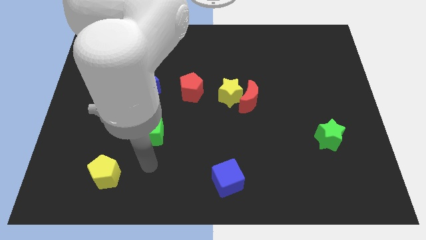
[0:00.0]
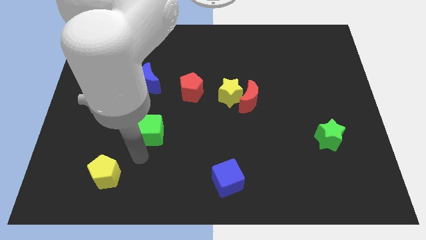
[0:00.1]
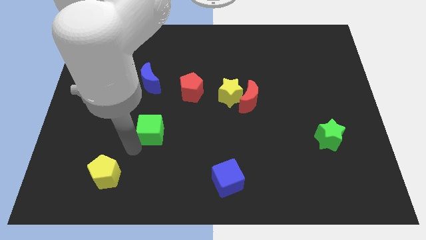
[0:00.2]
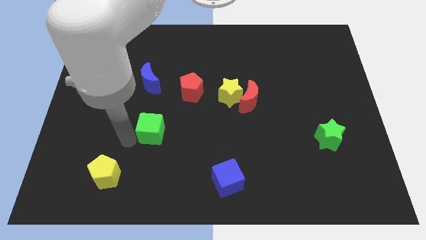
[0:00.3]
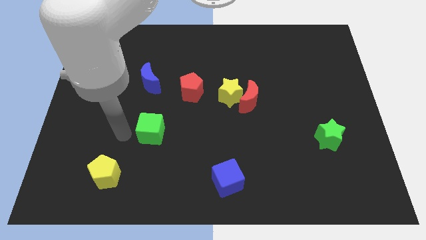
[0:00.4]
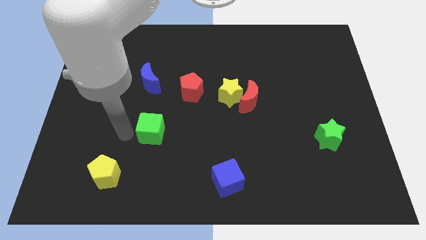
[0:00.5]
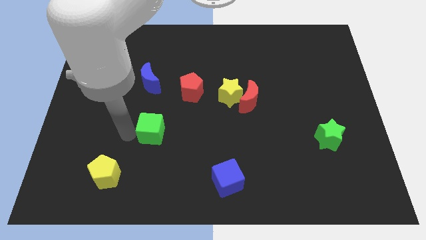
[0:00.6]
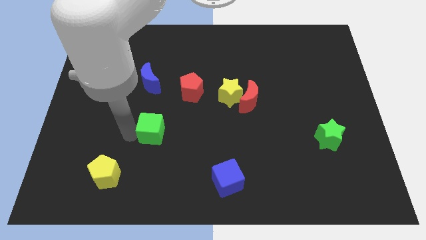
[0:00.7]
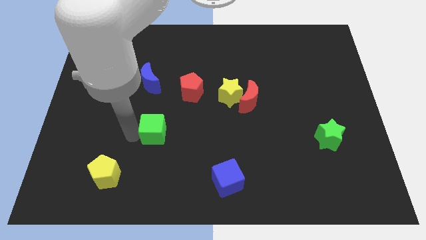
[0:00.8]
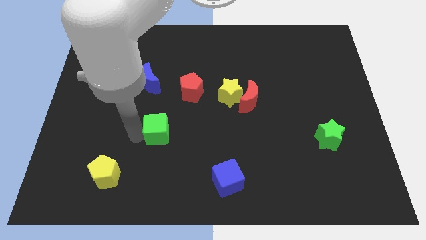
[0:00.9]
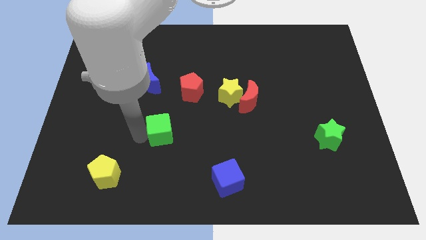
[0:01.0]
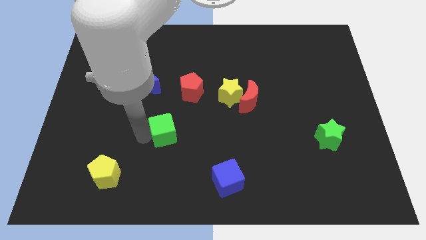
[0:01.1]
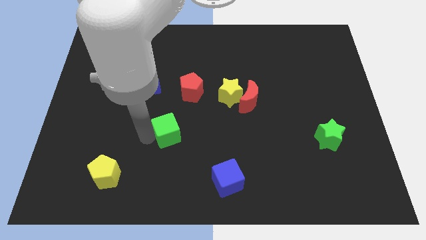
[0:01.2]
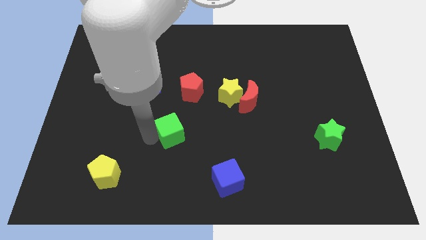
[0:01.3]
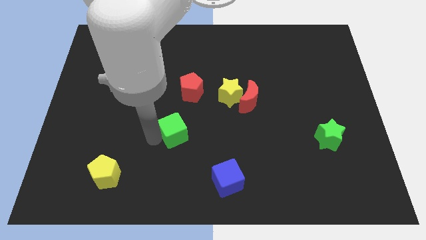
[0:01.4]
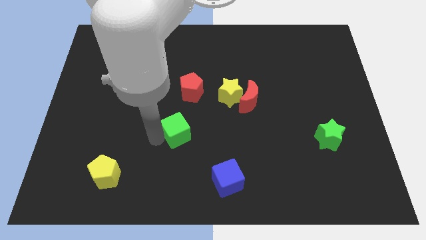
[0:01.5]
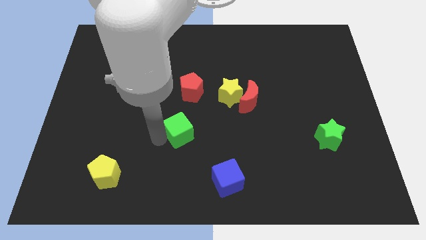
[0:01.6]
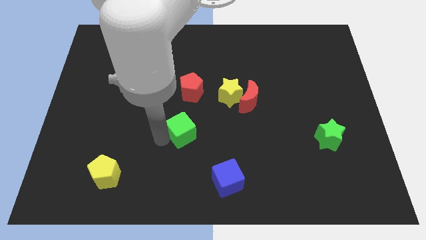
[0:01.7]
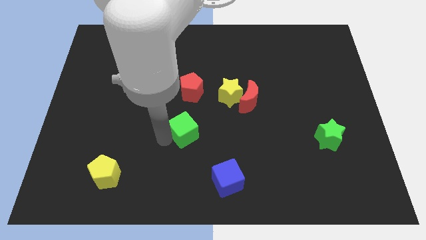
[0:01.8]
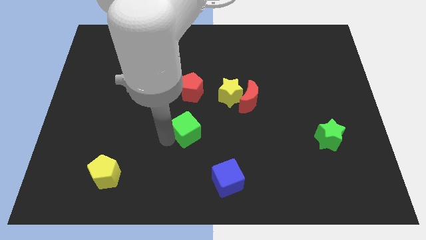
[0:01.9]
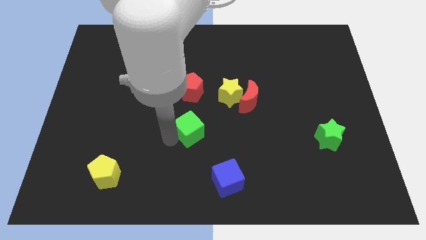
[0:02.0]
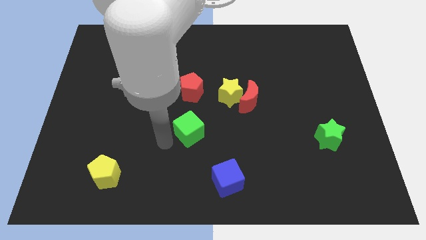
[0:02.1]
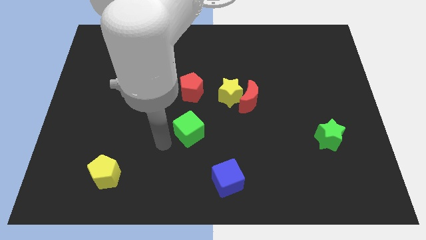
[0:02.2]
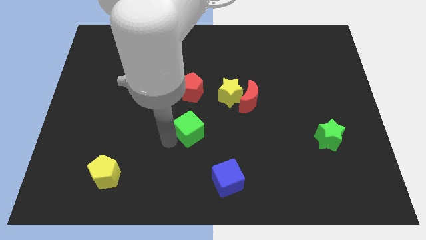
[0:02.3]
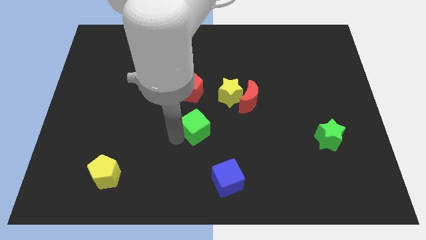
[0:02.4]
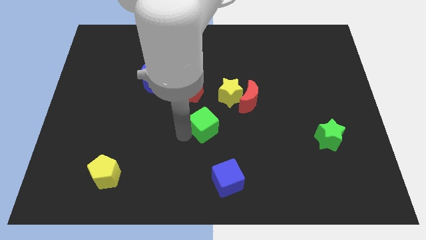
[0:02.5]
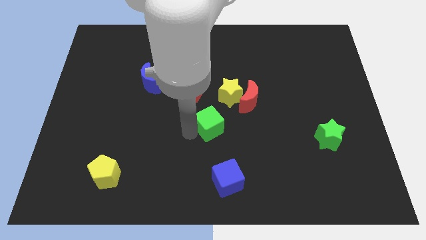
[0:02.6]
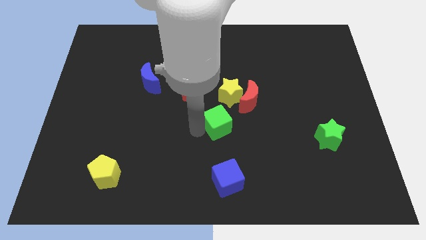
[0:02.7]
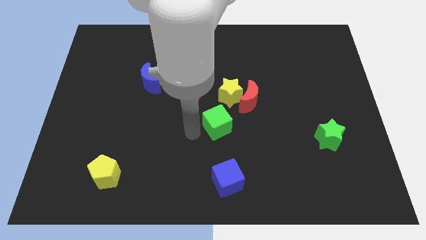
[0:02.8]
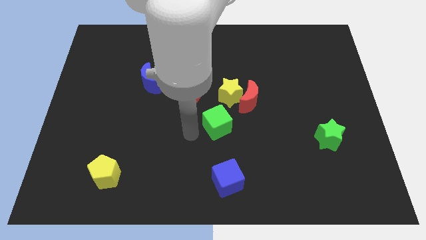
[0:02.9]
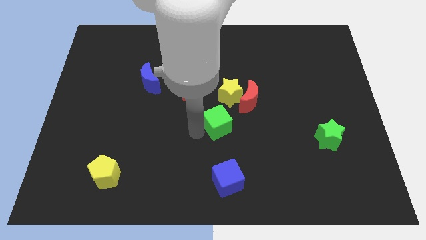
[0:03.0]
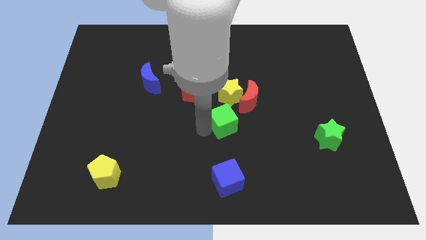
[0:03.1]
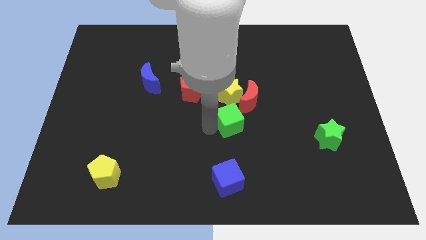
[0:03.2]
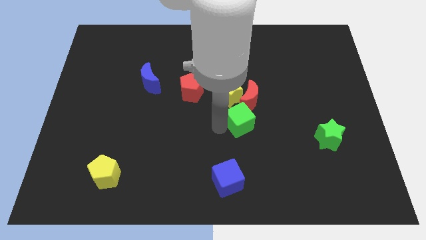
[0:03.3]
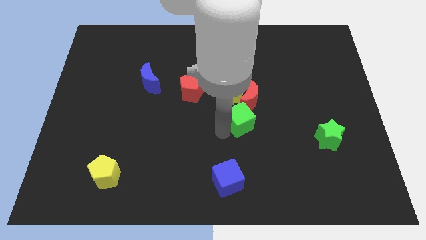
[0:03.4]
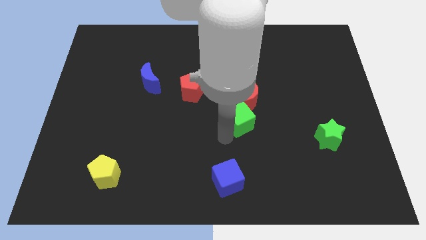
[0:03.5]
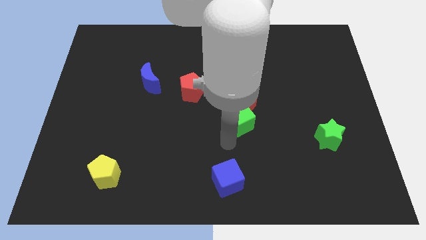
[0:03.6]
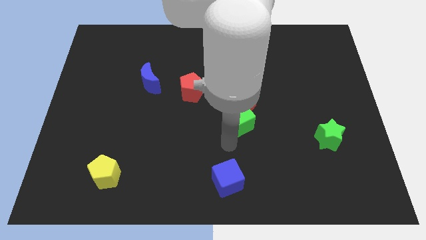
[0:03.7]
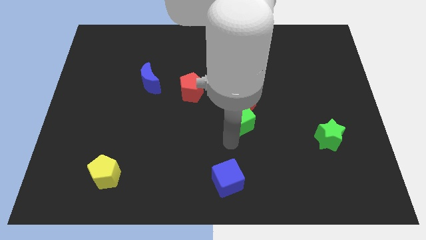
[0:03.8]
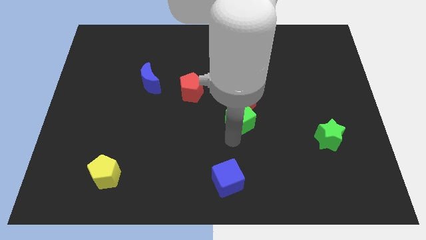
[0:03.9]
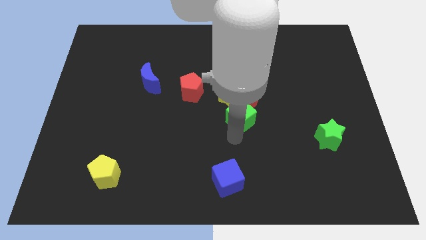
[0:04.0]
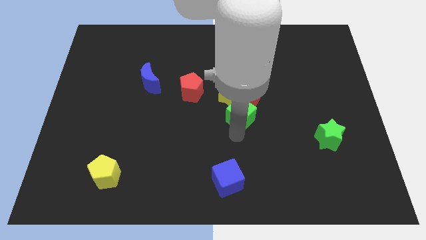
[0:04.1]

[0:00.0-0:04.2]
move the green cube close to the red moon

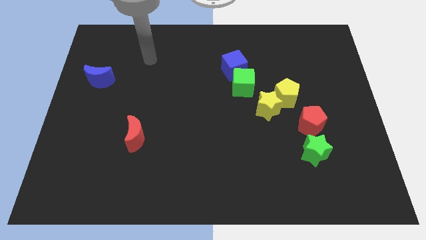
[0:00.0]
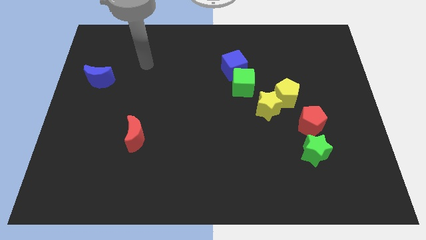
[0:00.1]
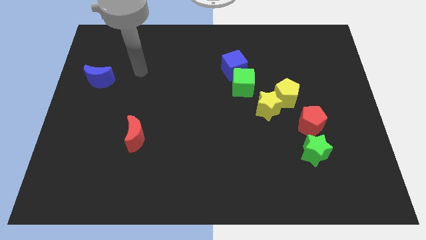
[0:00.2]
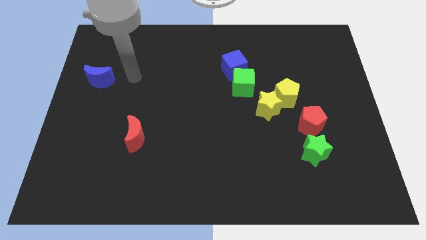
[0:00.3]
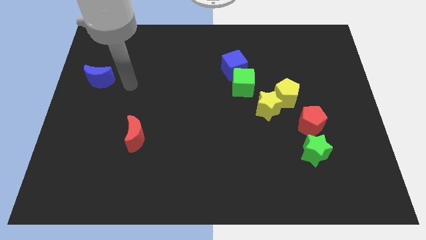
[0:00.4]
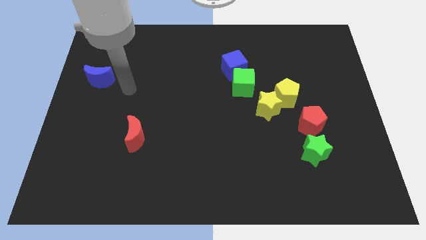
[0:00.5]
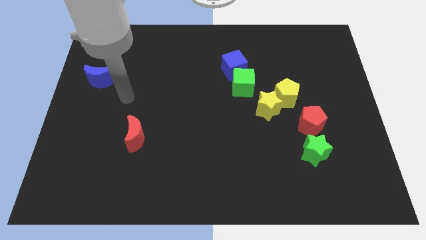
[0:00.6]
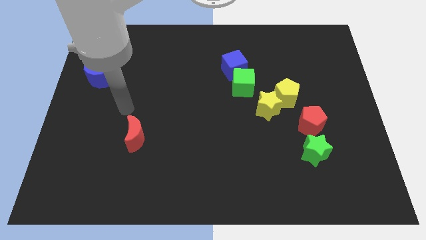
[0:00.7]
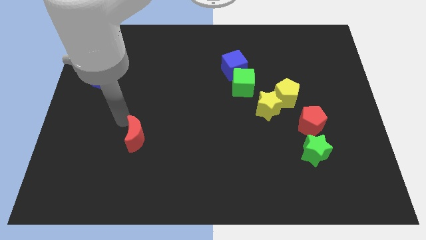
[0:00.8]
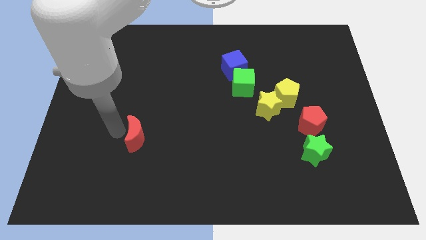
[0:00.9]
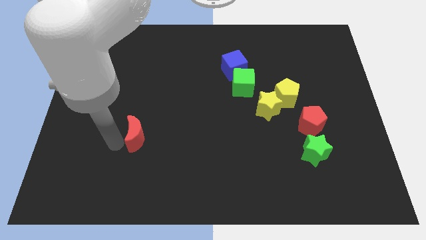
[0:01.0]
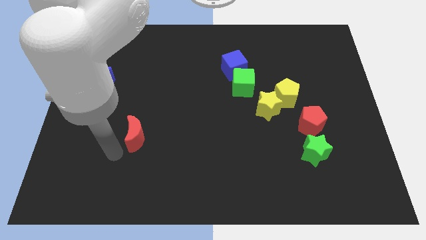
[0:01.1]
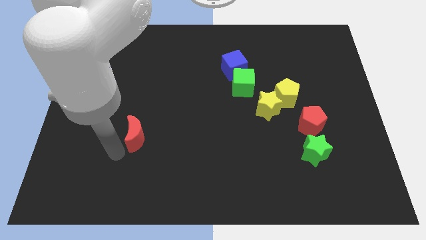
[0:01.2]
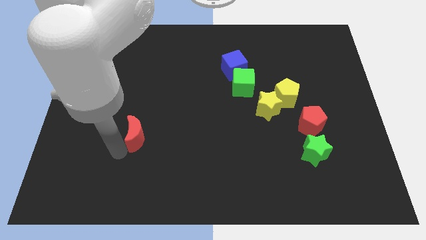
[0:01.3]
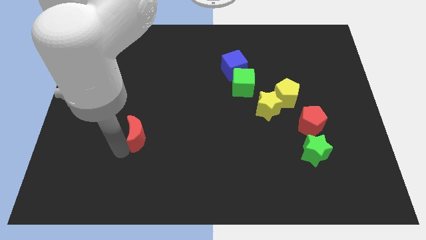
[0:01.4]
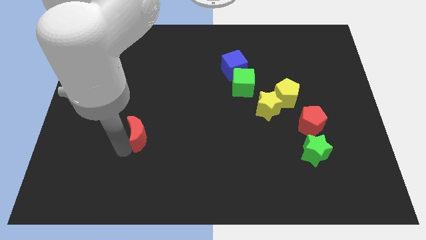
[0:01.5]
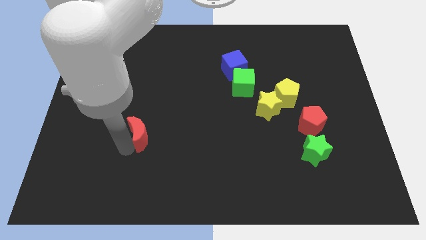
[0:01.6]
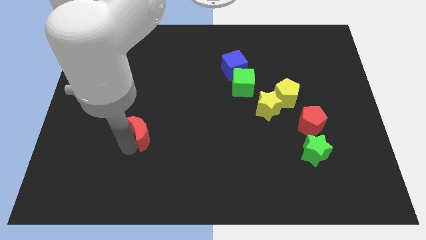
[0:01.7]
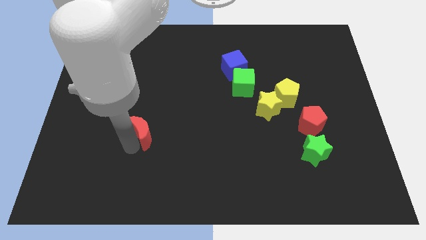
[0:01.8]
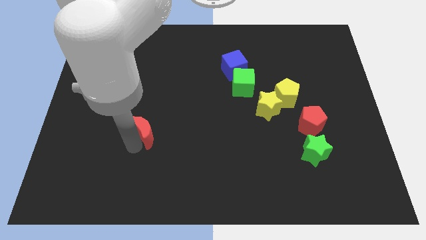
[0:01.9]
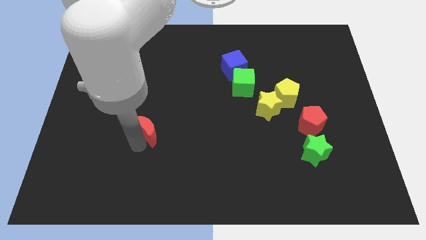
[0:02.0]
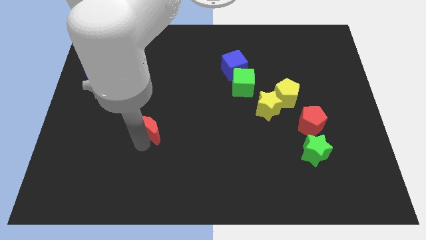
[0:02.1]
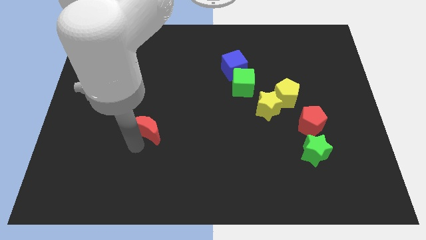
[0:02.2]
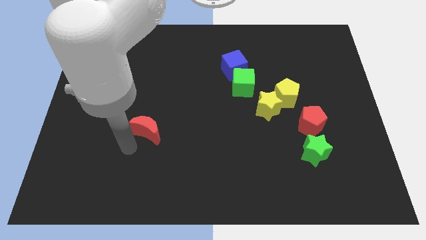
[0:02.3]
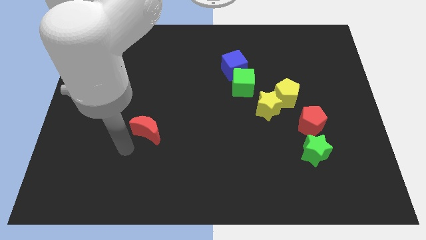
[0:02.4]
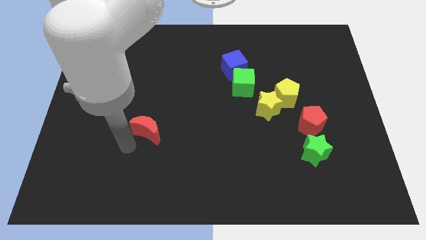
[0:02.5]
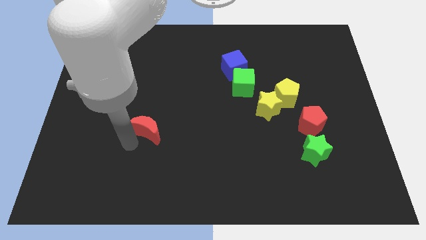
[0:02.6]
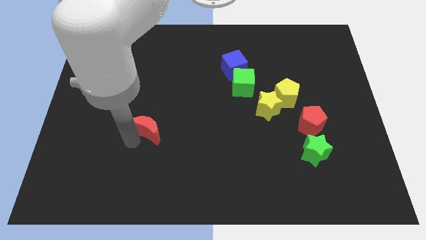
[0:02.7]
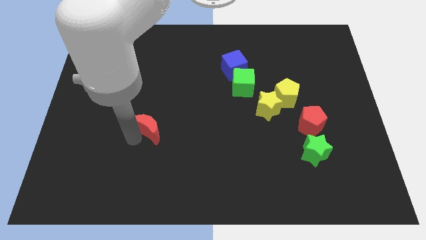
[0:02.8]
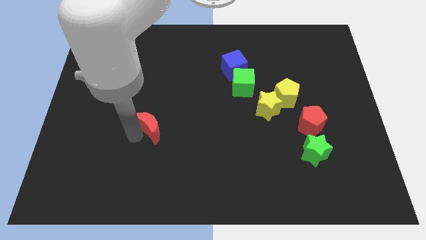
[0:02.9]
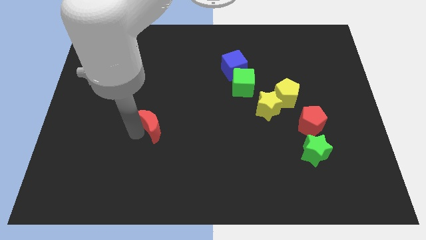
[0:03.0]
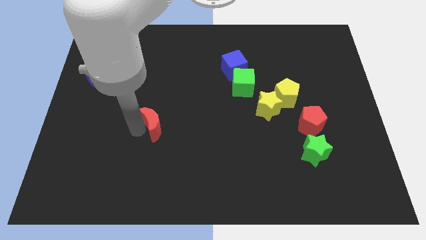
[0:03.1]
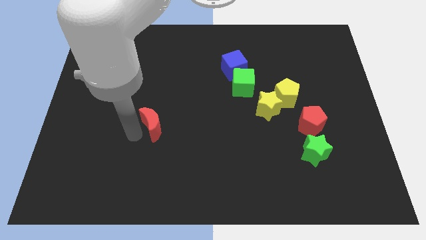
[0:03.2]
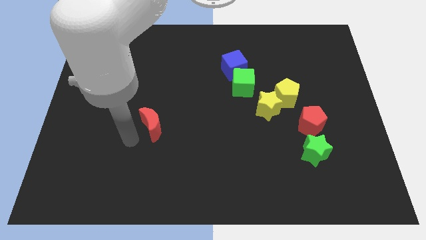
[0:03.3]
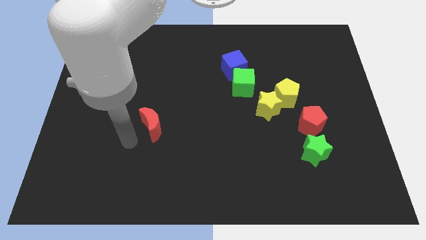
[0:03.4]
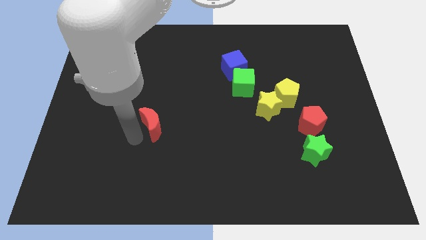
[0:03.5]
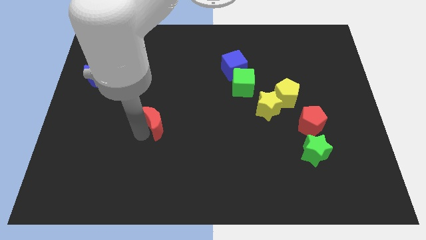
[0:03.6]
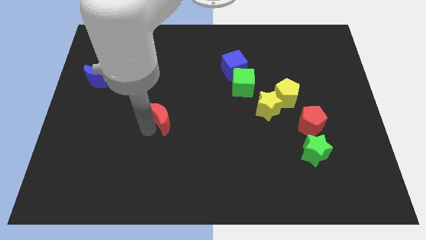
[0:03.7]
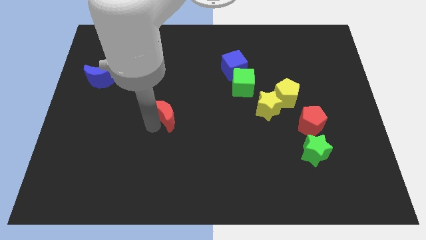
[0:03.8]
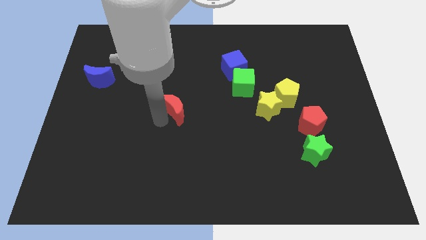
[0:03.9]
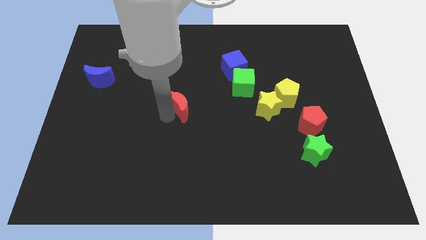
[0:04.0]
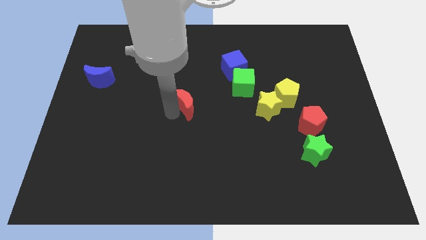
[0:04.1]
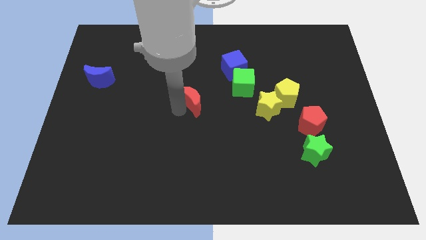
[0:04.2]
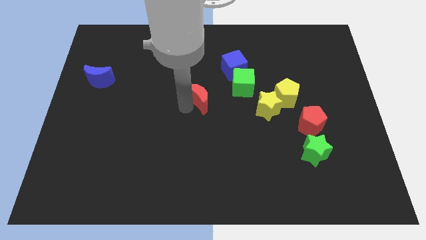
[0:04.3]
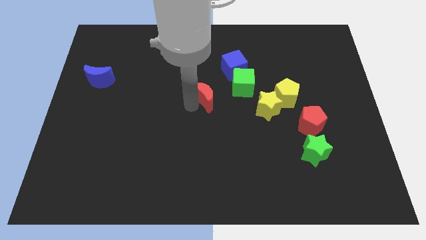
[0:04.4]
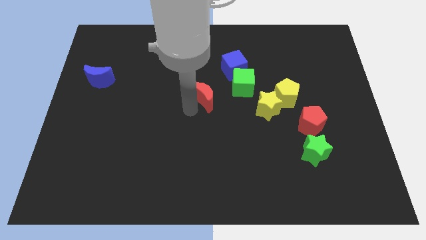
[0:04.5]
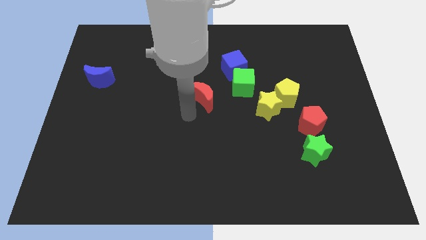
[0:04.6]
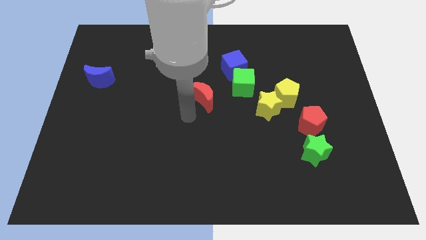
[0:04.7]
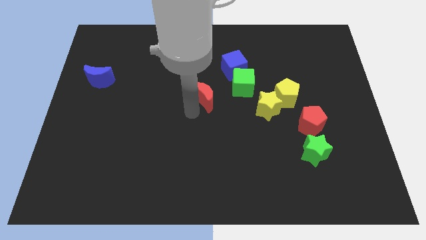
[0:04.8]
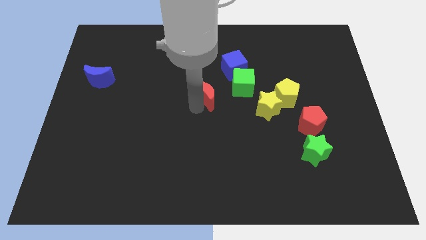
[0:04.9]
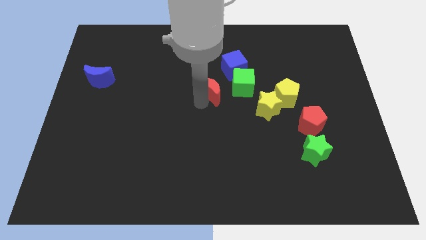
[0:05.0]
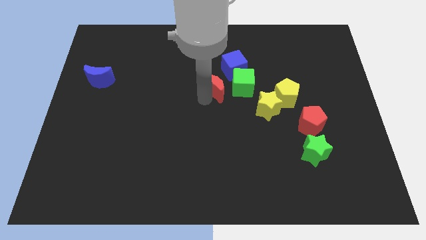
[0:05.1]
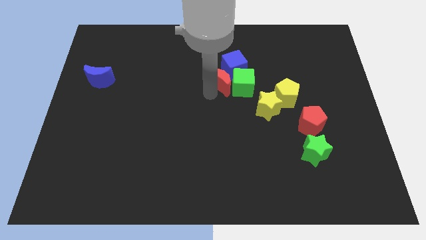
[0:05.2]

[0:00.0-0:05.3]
slide the red moon to the blue cube
